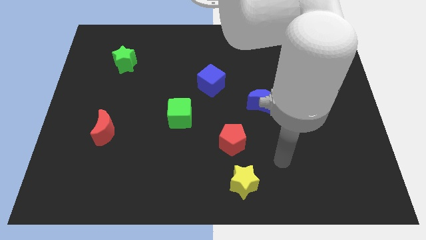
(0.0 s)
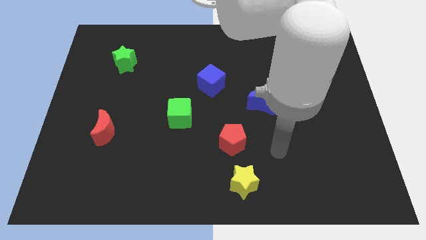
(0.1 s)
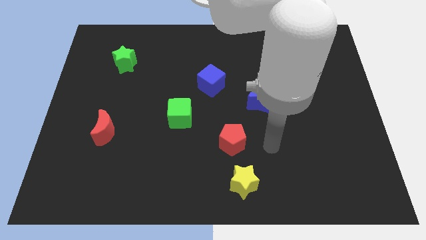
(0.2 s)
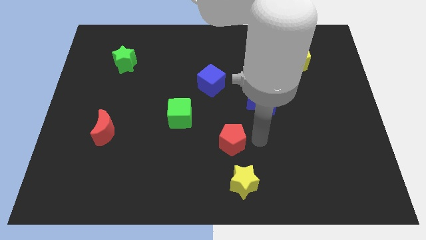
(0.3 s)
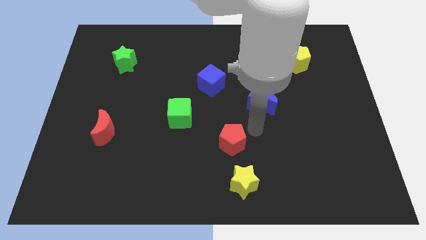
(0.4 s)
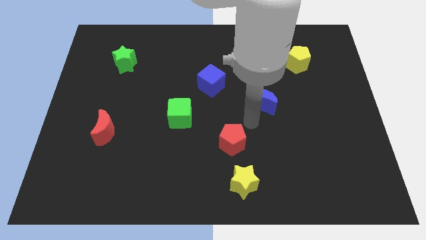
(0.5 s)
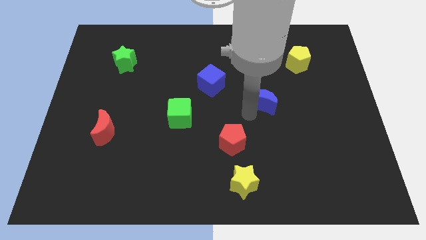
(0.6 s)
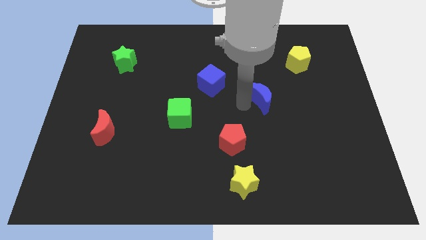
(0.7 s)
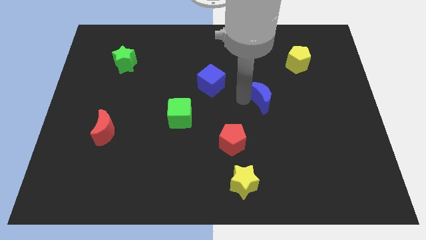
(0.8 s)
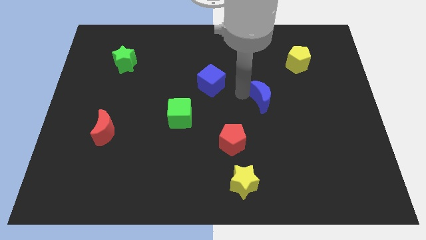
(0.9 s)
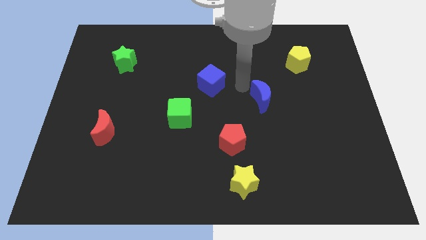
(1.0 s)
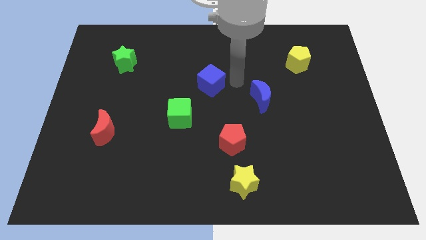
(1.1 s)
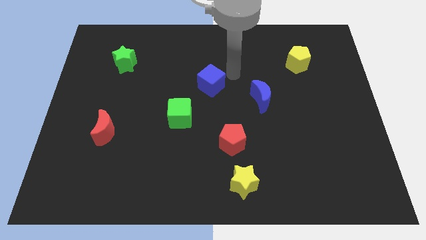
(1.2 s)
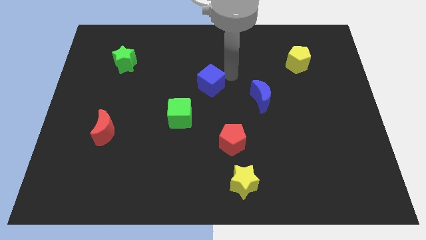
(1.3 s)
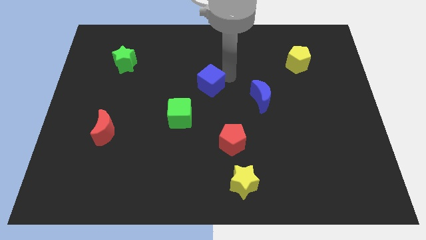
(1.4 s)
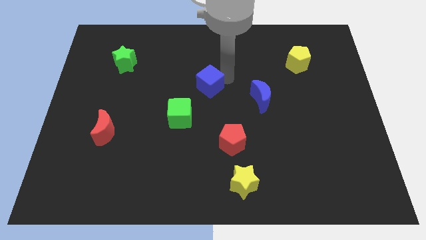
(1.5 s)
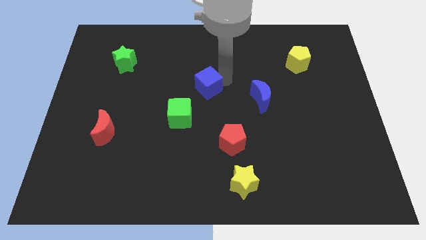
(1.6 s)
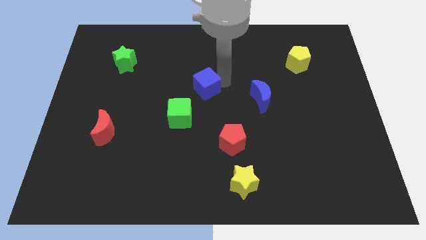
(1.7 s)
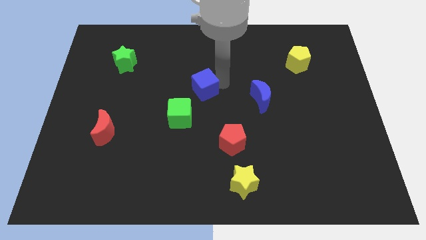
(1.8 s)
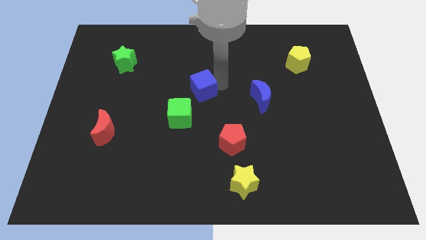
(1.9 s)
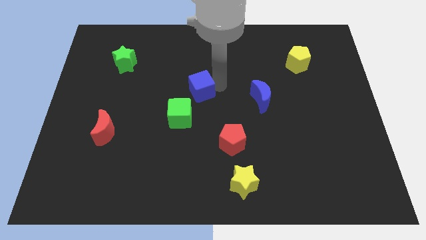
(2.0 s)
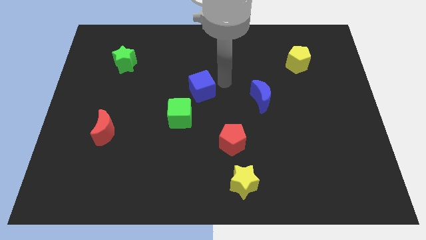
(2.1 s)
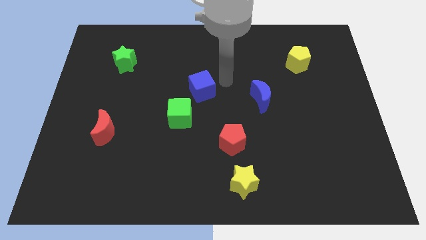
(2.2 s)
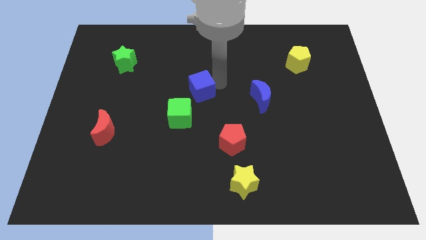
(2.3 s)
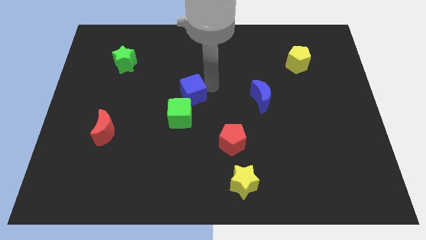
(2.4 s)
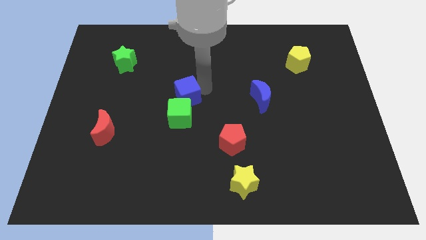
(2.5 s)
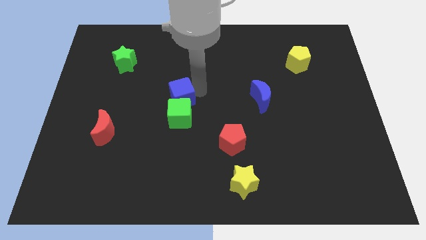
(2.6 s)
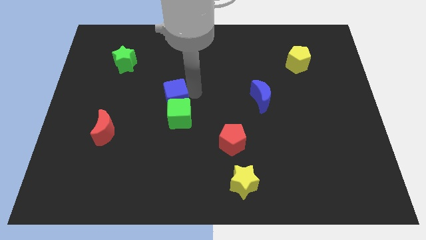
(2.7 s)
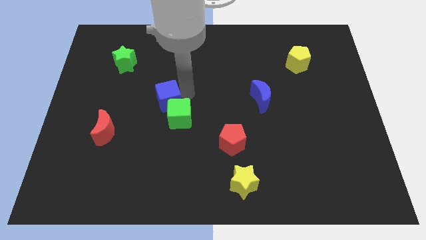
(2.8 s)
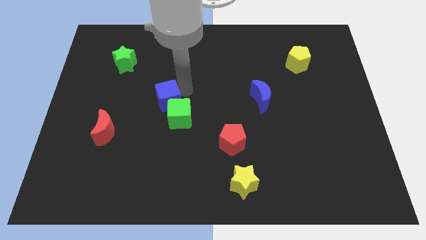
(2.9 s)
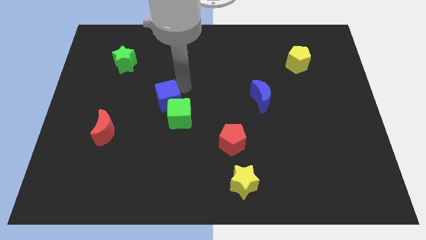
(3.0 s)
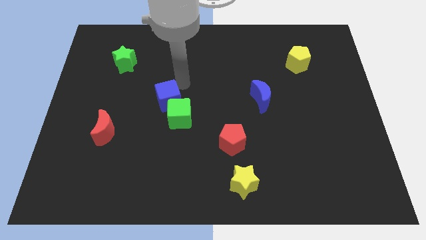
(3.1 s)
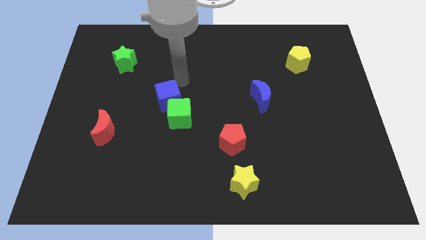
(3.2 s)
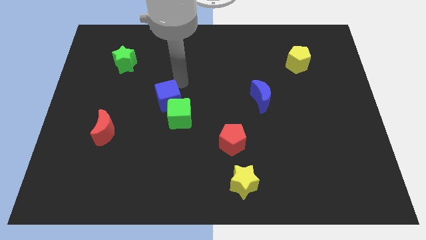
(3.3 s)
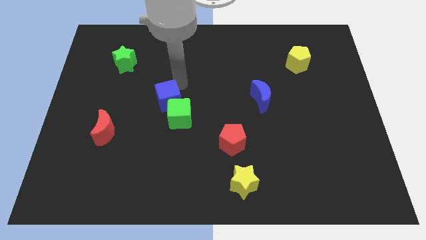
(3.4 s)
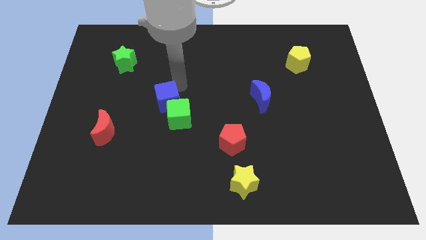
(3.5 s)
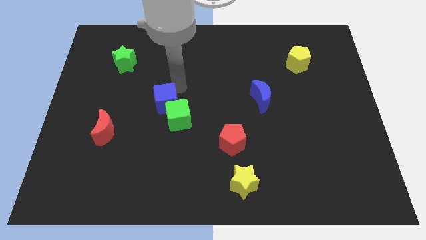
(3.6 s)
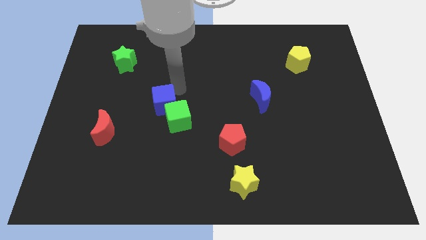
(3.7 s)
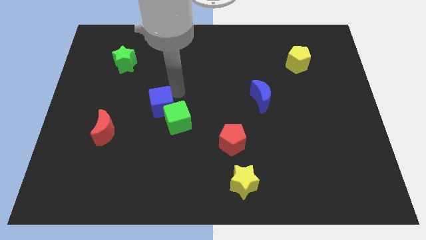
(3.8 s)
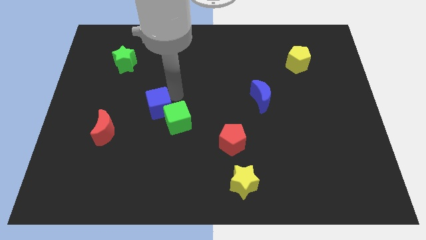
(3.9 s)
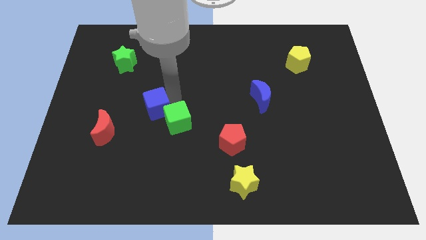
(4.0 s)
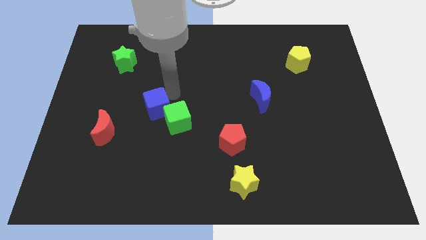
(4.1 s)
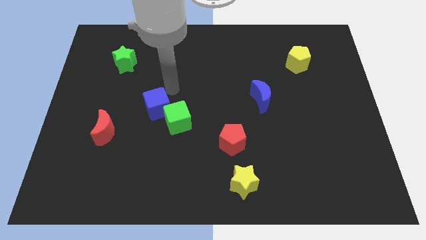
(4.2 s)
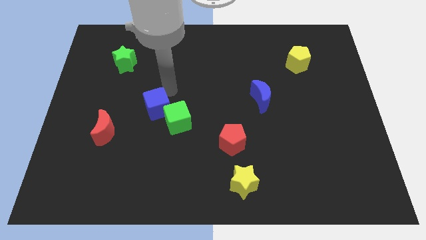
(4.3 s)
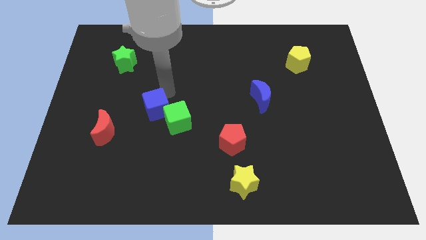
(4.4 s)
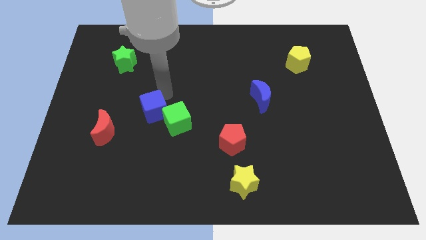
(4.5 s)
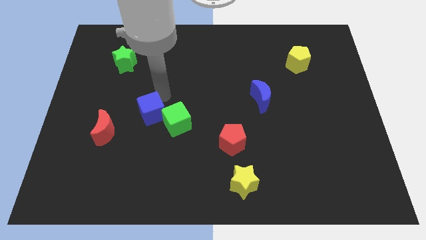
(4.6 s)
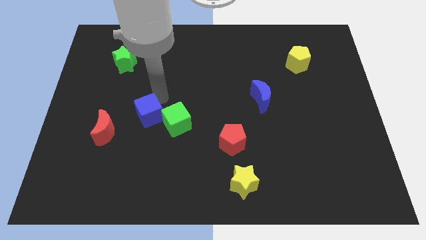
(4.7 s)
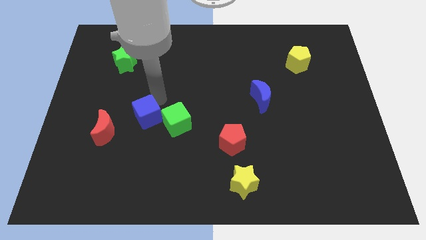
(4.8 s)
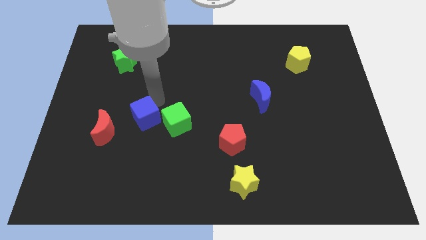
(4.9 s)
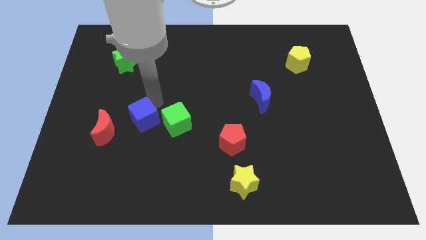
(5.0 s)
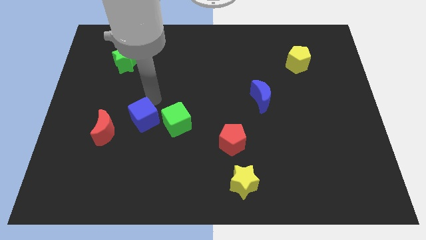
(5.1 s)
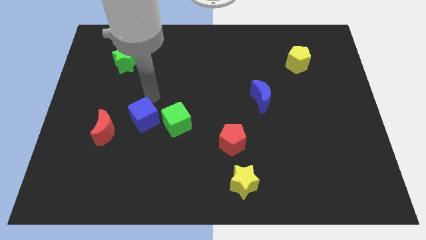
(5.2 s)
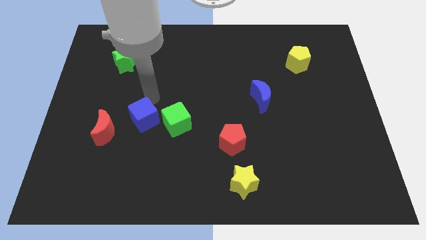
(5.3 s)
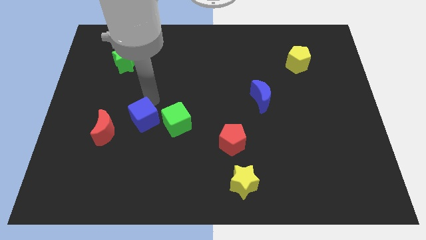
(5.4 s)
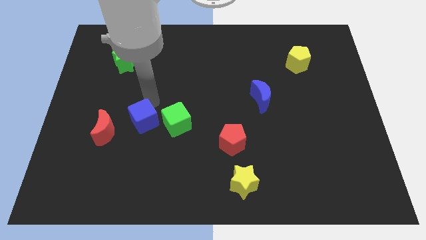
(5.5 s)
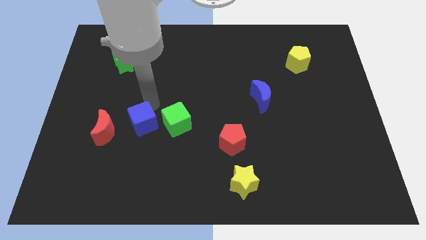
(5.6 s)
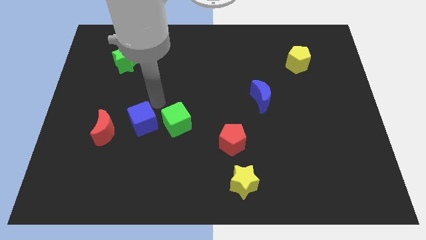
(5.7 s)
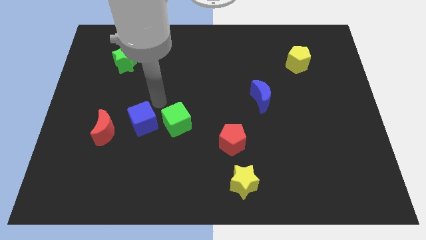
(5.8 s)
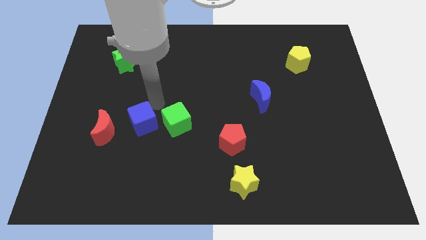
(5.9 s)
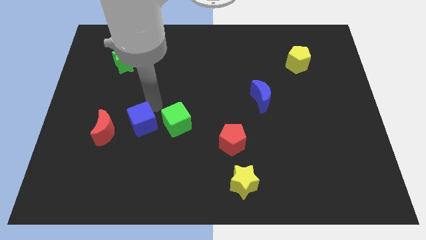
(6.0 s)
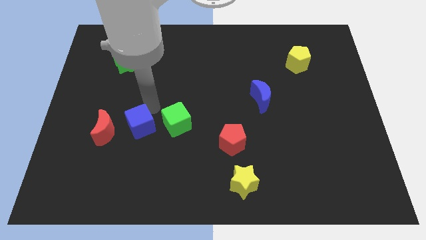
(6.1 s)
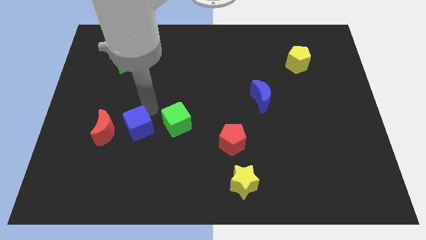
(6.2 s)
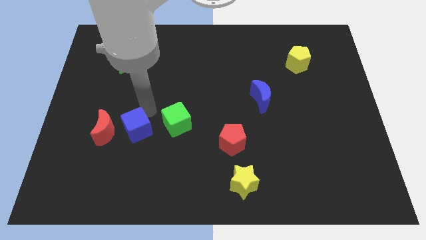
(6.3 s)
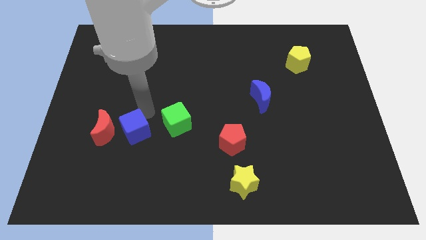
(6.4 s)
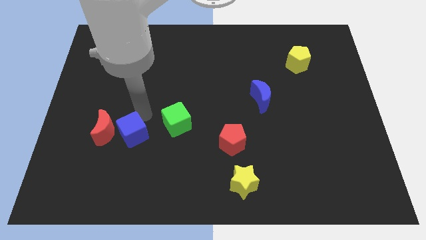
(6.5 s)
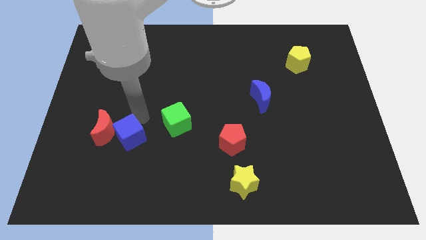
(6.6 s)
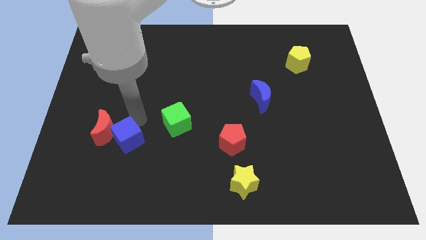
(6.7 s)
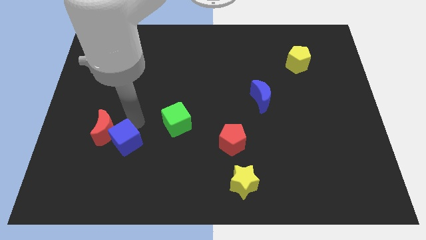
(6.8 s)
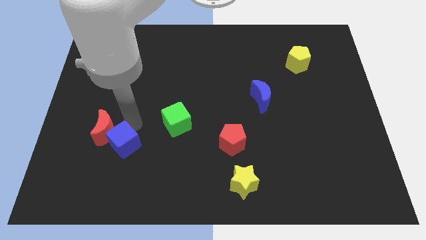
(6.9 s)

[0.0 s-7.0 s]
put the blue cube to the bottom of the red moon
